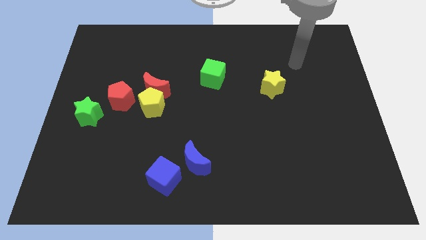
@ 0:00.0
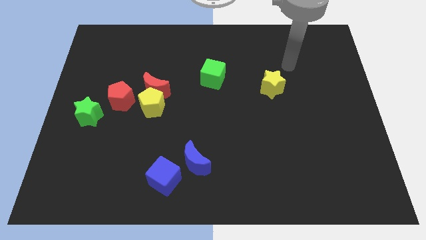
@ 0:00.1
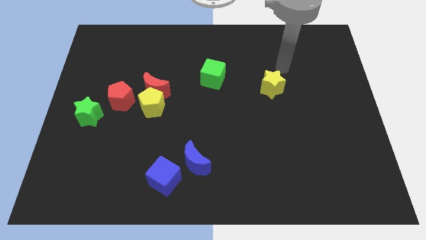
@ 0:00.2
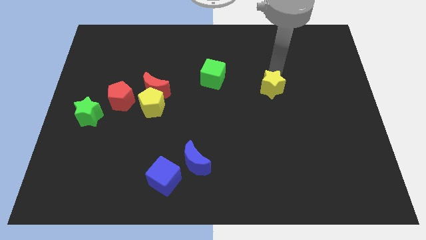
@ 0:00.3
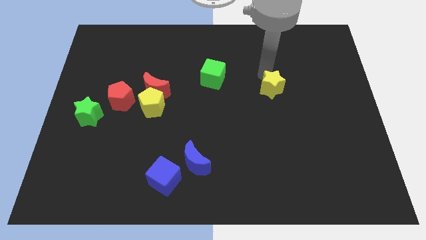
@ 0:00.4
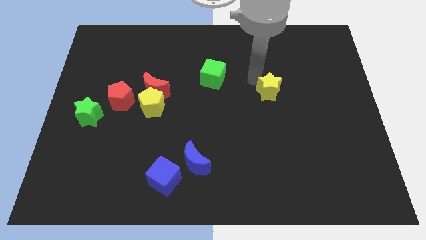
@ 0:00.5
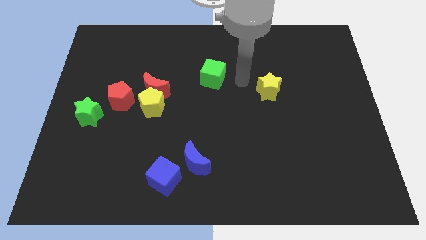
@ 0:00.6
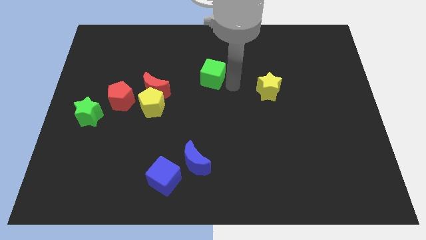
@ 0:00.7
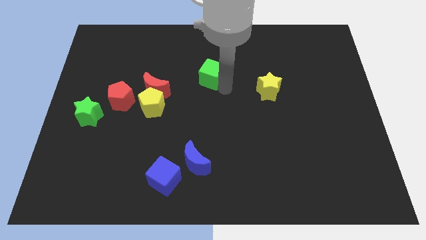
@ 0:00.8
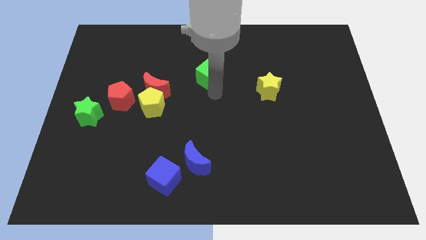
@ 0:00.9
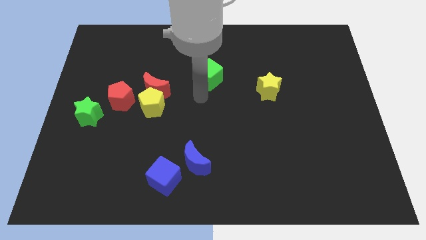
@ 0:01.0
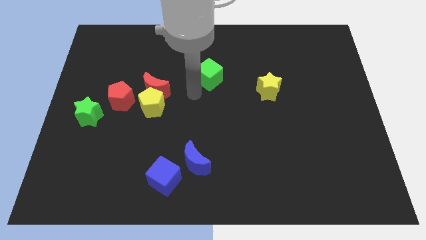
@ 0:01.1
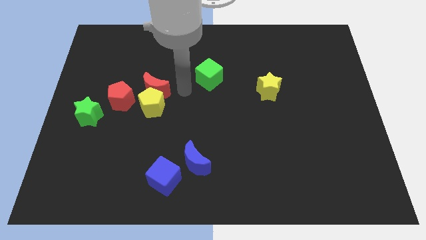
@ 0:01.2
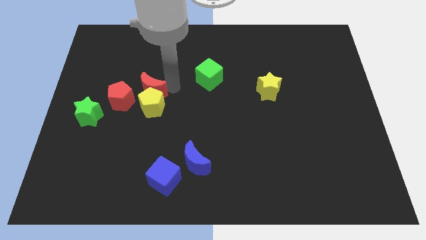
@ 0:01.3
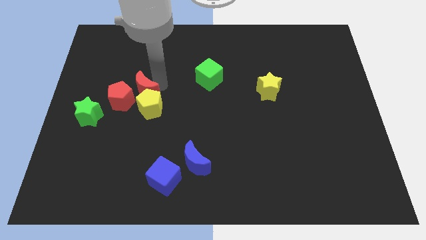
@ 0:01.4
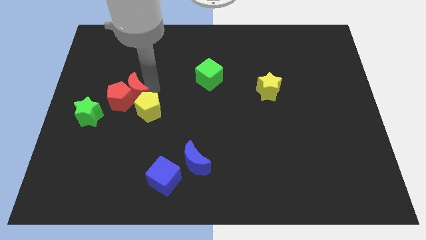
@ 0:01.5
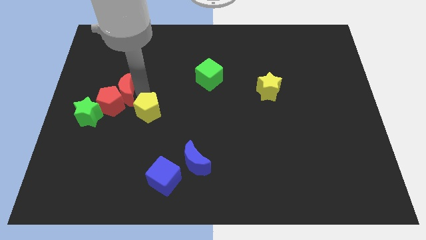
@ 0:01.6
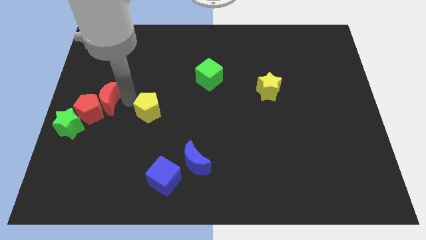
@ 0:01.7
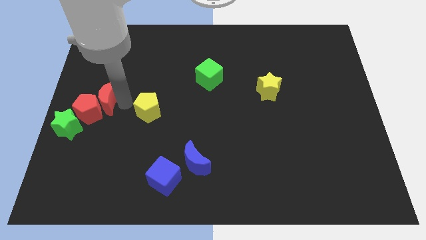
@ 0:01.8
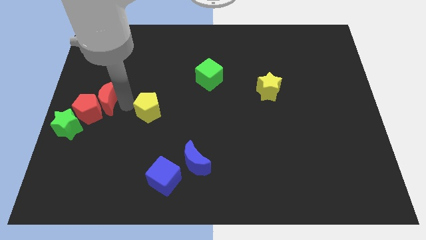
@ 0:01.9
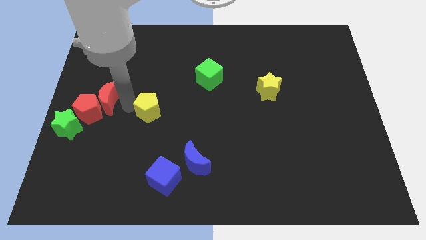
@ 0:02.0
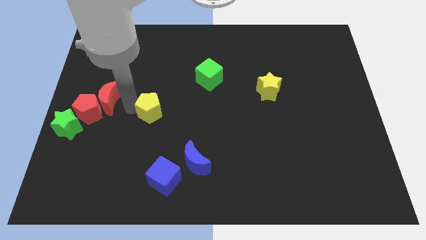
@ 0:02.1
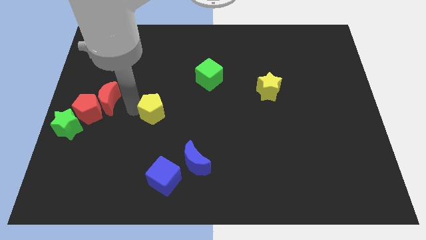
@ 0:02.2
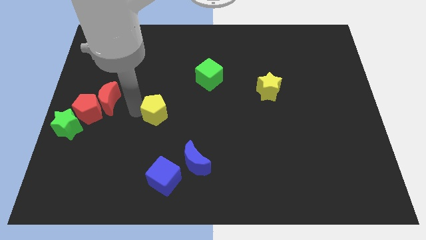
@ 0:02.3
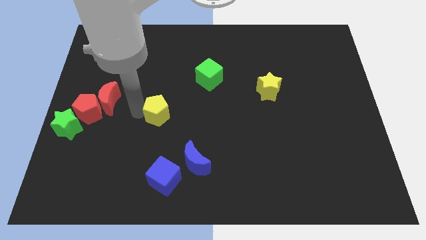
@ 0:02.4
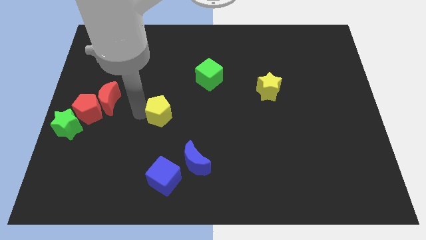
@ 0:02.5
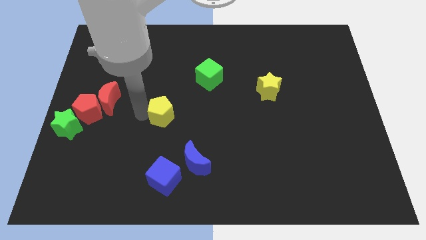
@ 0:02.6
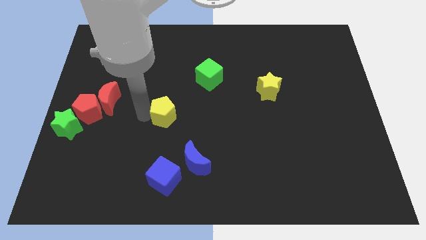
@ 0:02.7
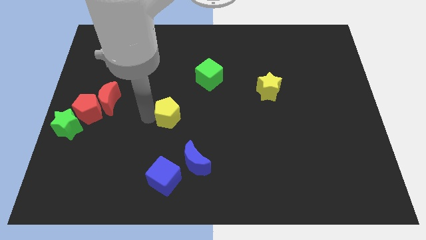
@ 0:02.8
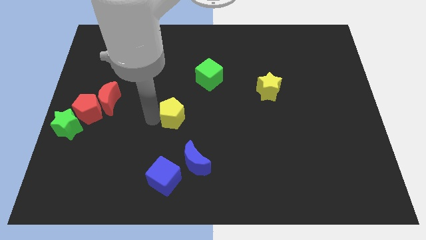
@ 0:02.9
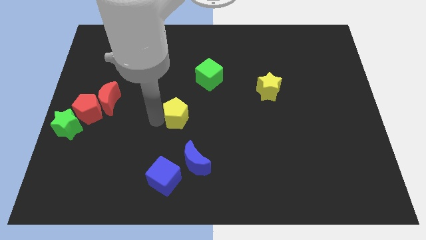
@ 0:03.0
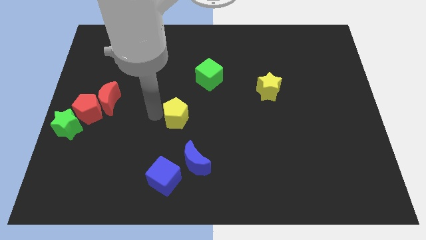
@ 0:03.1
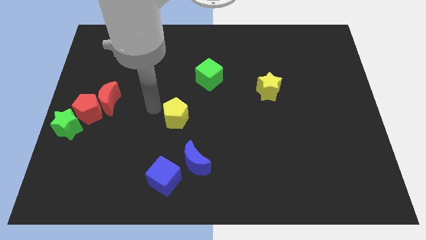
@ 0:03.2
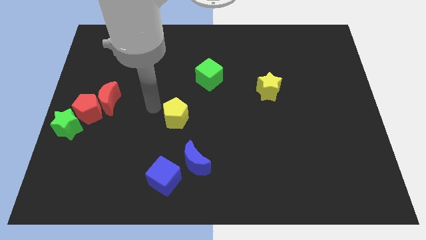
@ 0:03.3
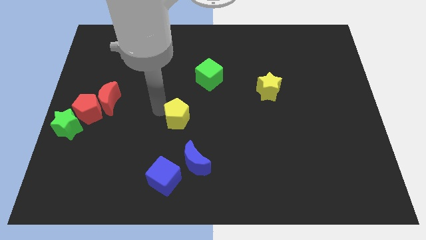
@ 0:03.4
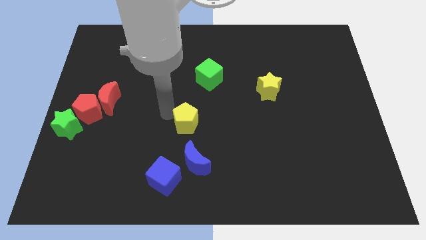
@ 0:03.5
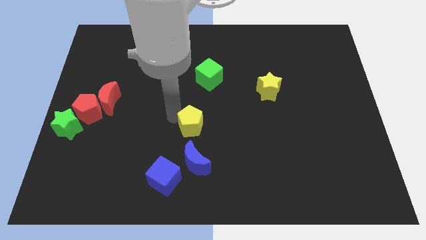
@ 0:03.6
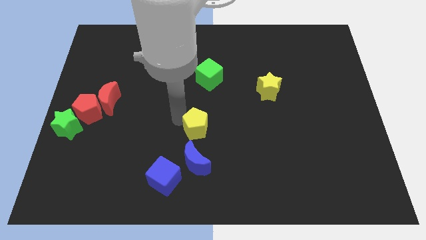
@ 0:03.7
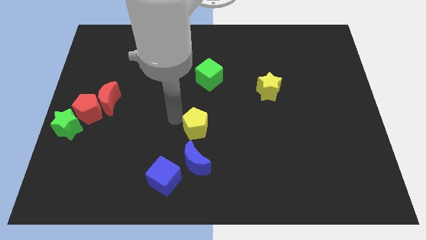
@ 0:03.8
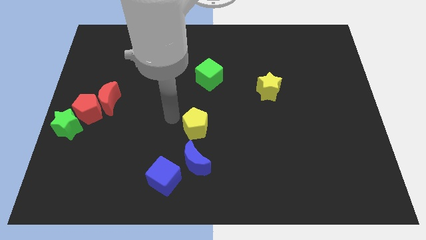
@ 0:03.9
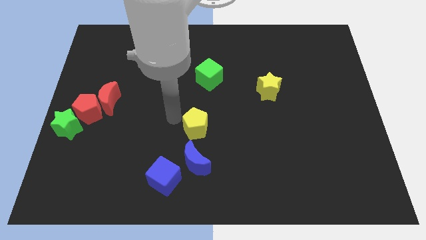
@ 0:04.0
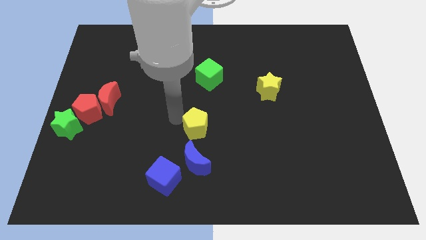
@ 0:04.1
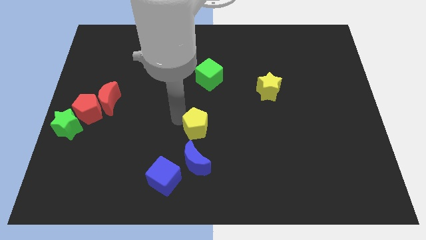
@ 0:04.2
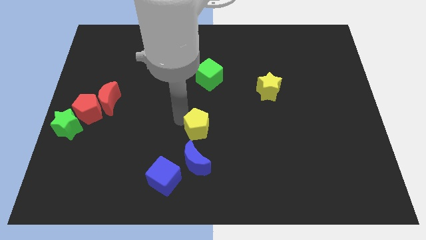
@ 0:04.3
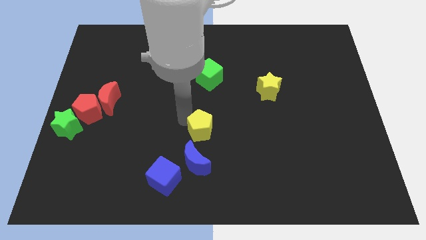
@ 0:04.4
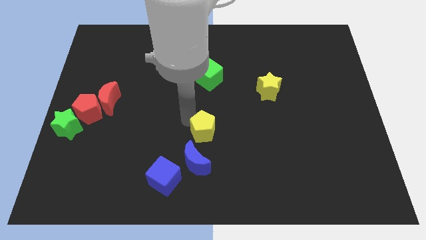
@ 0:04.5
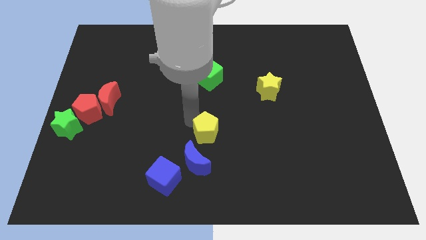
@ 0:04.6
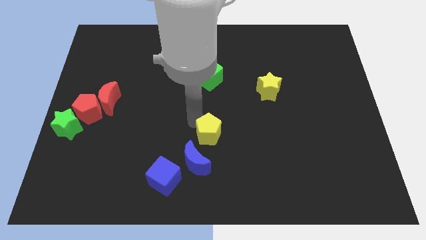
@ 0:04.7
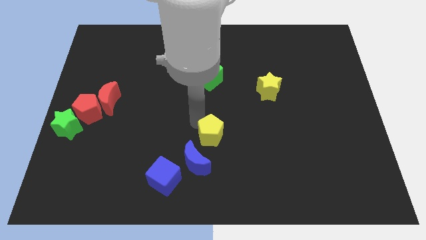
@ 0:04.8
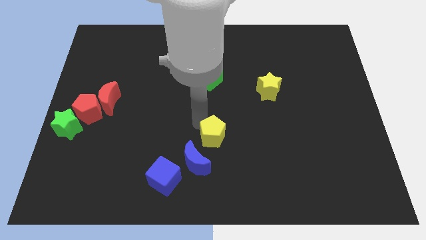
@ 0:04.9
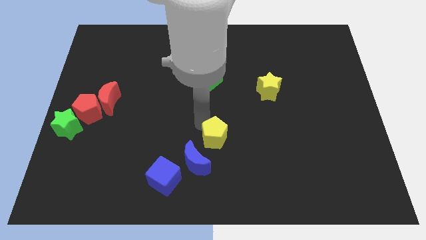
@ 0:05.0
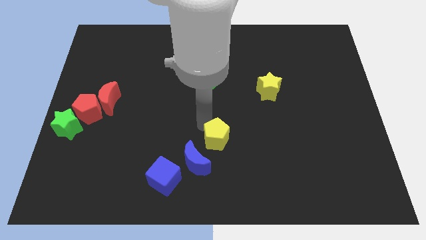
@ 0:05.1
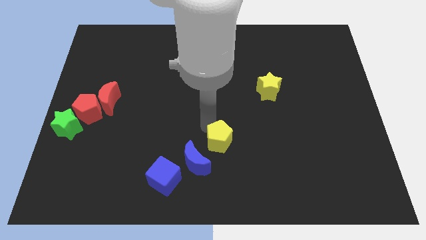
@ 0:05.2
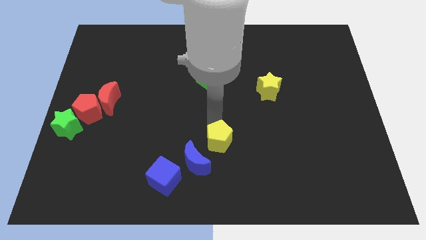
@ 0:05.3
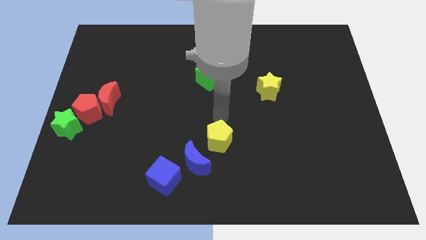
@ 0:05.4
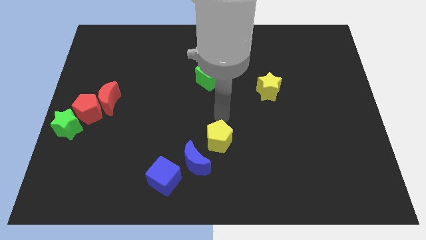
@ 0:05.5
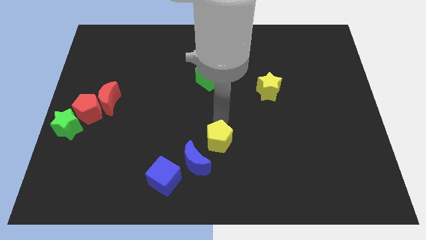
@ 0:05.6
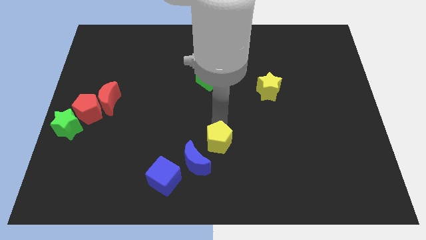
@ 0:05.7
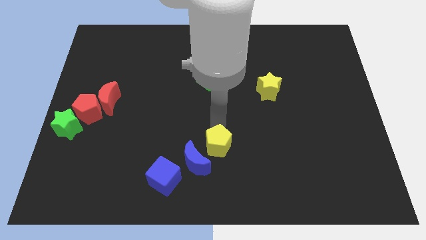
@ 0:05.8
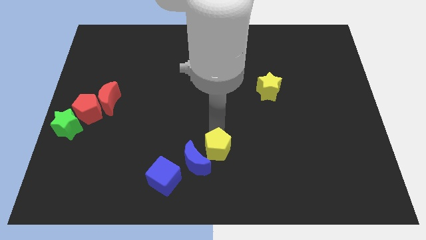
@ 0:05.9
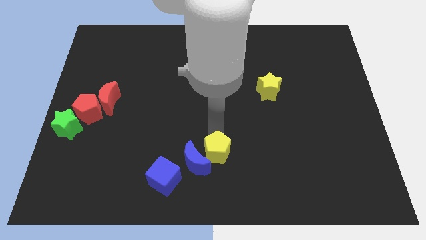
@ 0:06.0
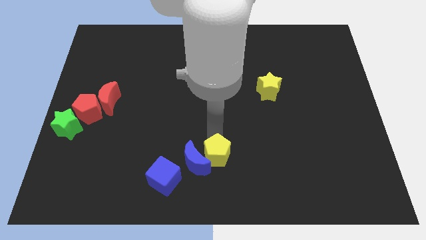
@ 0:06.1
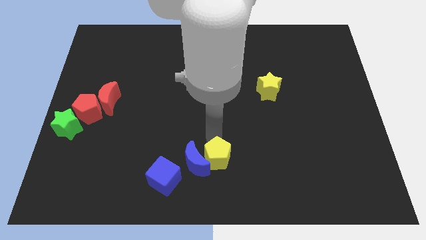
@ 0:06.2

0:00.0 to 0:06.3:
put the yellow pentagon to the right side of the blue cube

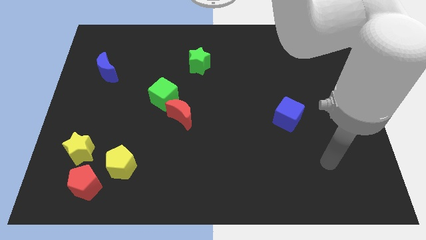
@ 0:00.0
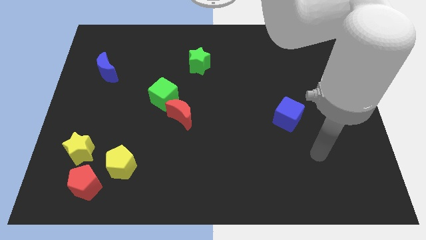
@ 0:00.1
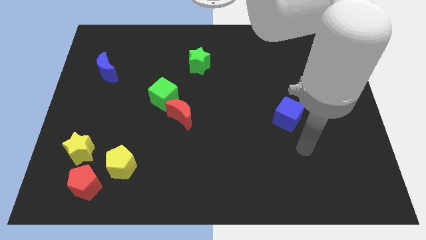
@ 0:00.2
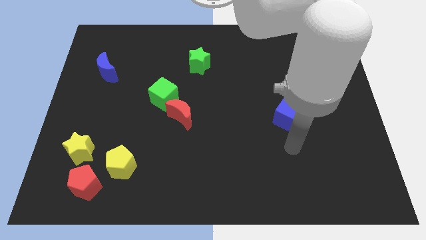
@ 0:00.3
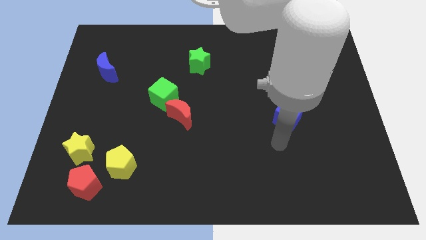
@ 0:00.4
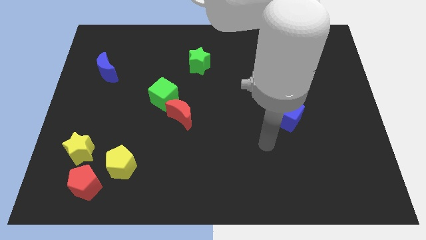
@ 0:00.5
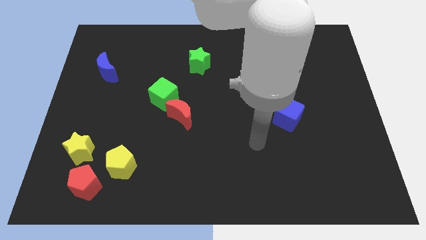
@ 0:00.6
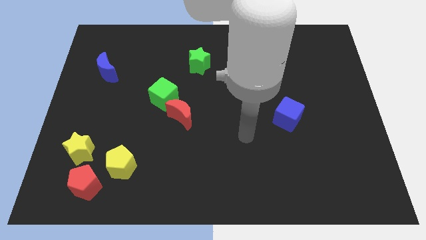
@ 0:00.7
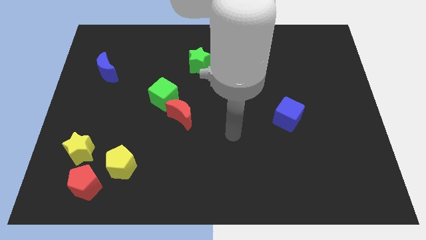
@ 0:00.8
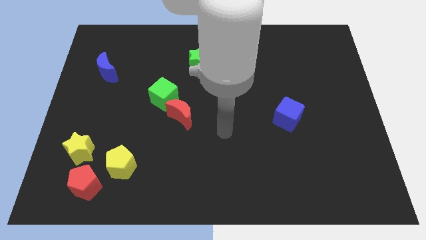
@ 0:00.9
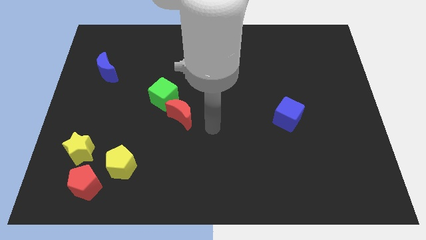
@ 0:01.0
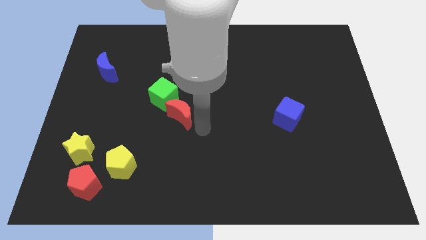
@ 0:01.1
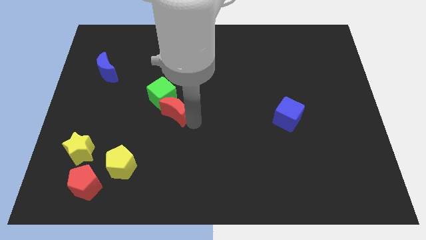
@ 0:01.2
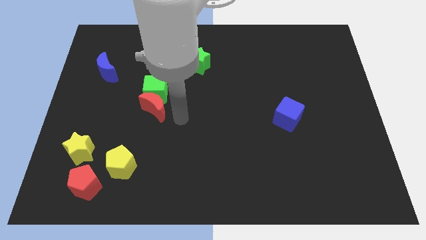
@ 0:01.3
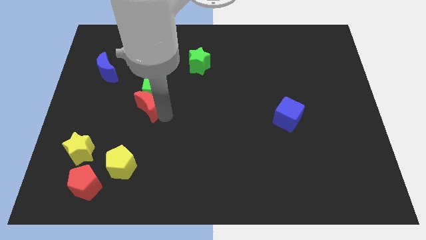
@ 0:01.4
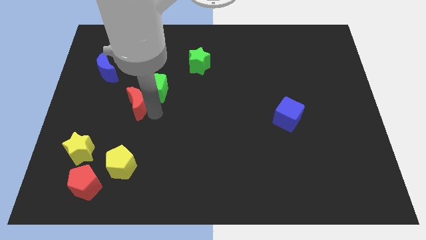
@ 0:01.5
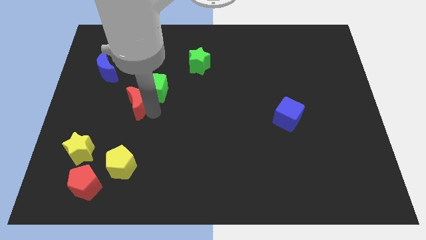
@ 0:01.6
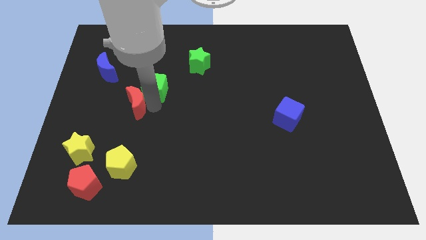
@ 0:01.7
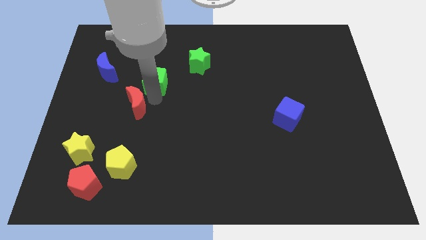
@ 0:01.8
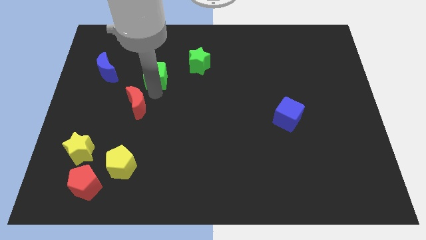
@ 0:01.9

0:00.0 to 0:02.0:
put the green cube to the left side of the green star
